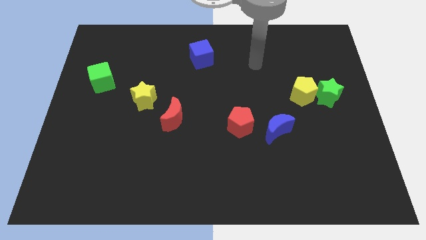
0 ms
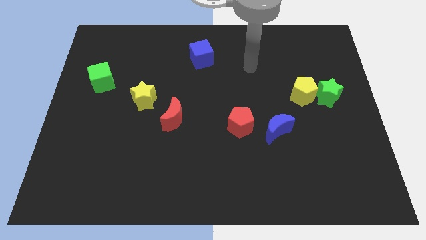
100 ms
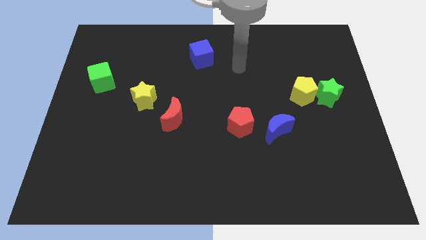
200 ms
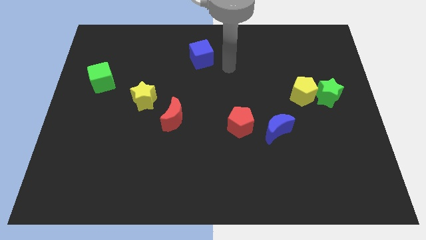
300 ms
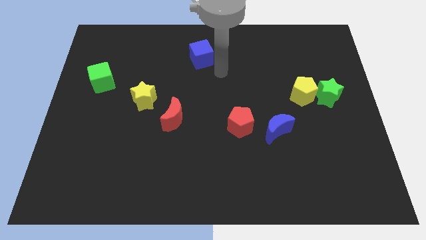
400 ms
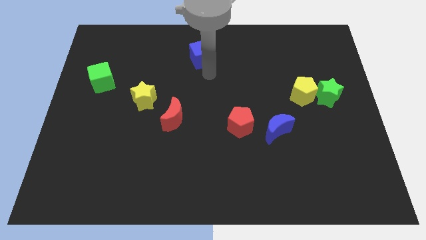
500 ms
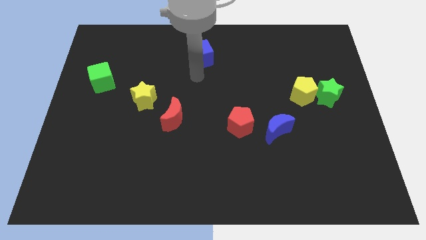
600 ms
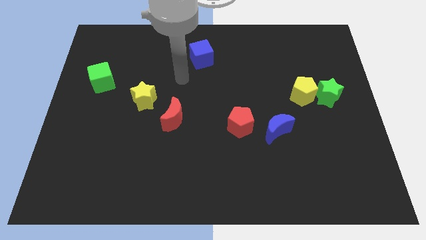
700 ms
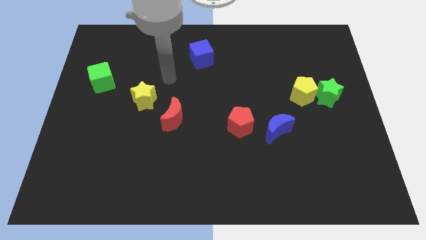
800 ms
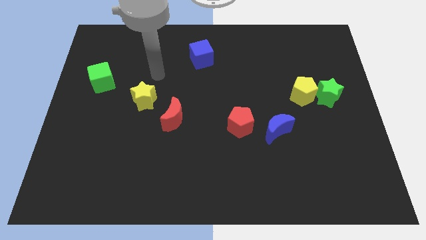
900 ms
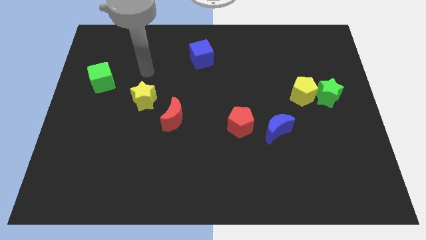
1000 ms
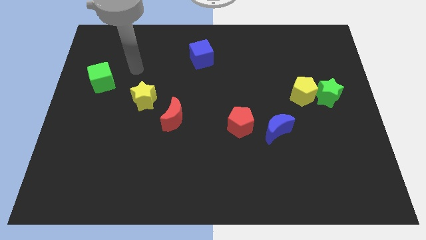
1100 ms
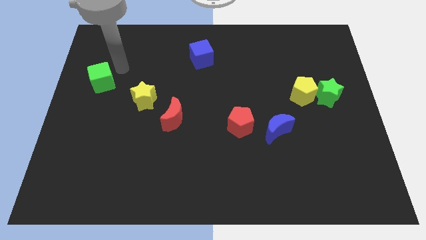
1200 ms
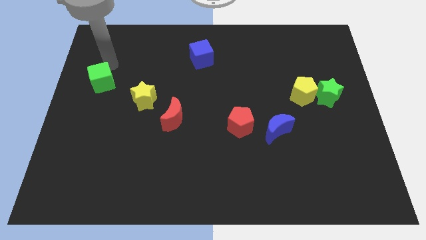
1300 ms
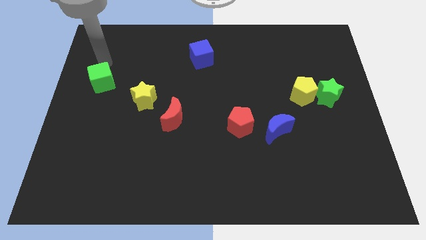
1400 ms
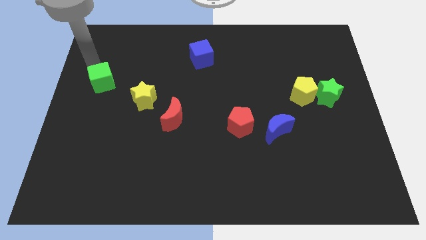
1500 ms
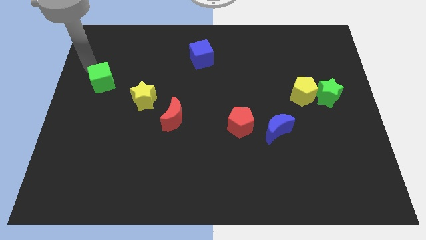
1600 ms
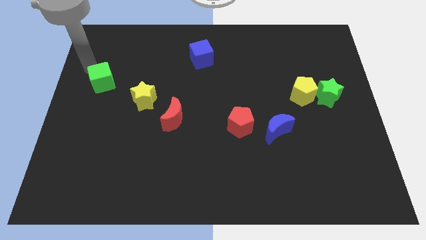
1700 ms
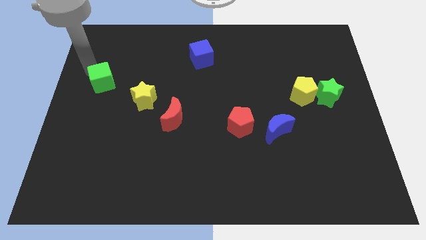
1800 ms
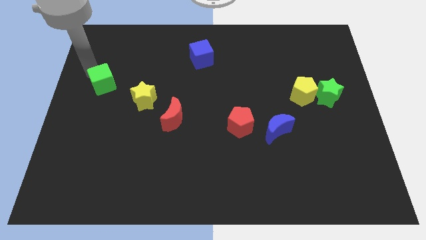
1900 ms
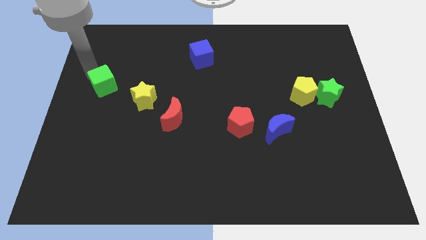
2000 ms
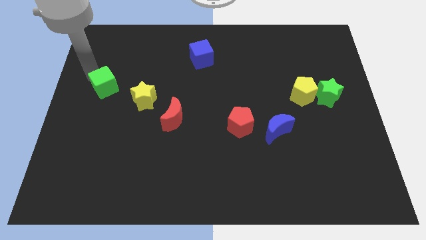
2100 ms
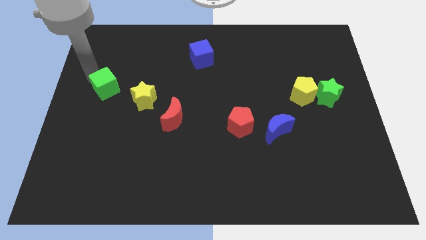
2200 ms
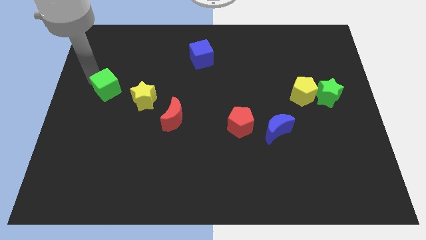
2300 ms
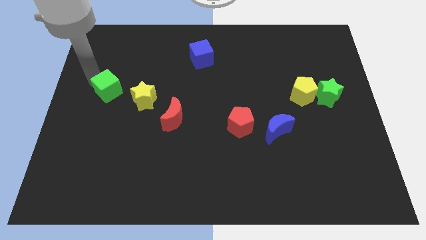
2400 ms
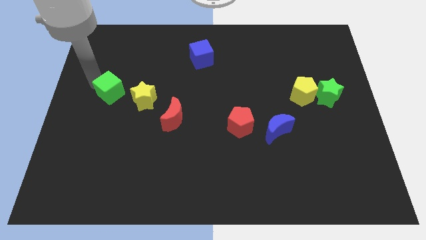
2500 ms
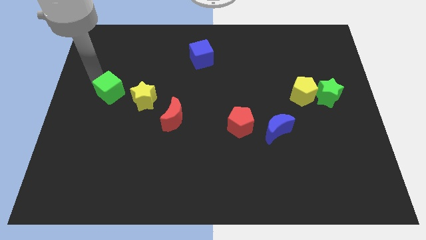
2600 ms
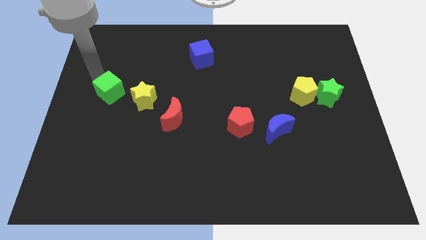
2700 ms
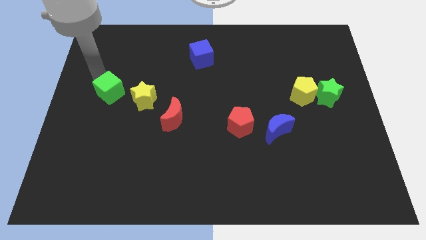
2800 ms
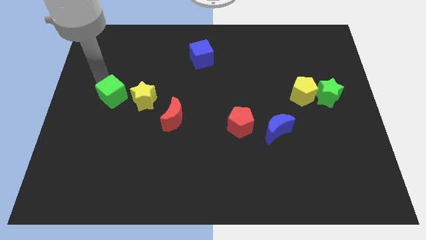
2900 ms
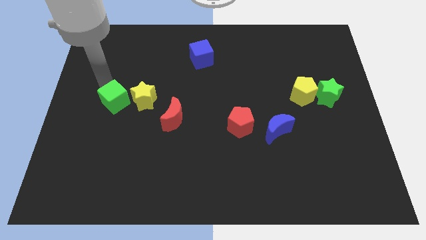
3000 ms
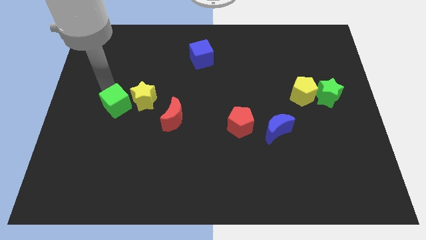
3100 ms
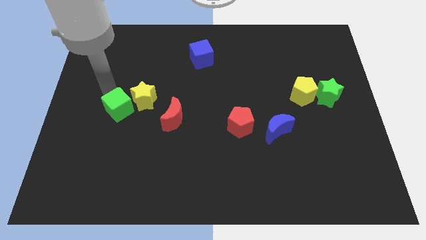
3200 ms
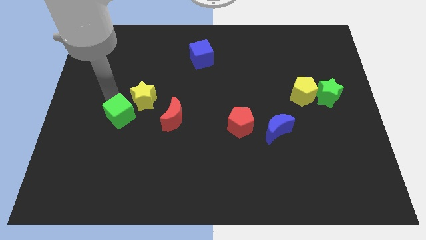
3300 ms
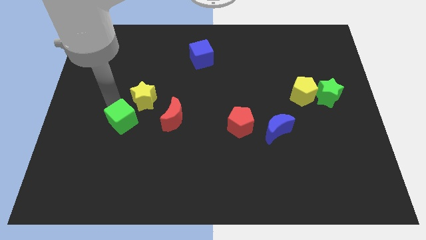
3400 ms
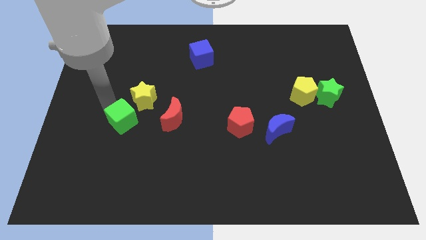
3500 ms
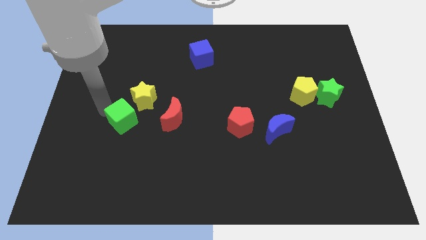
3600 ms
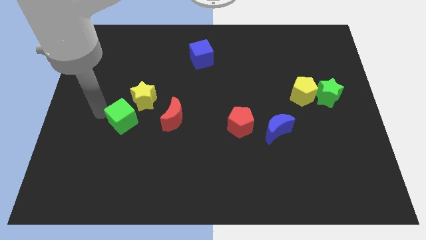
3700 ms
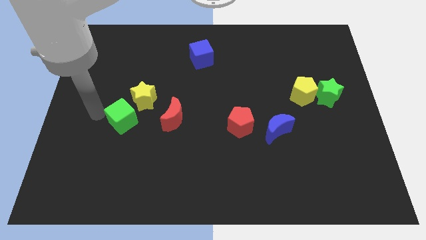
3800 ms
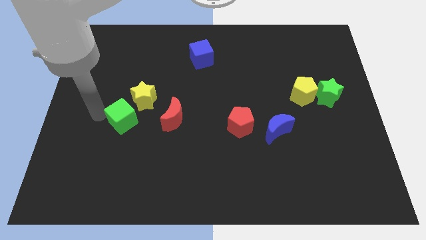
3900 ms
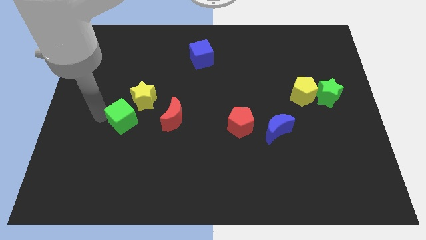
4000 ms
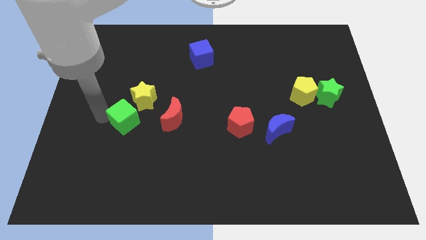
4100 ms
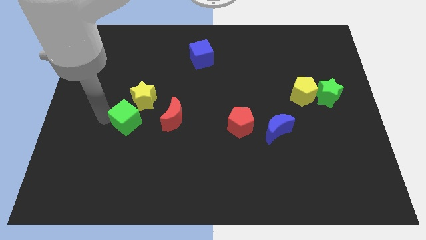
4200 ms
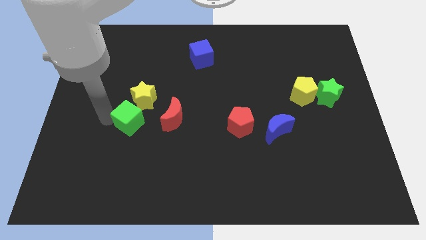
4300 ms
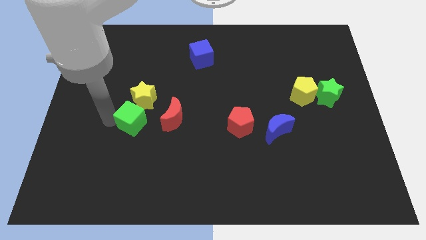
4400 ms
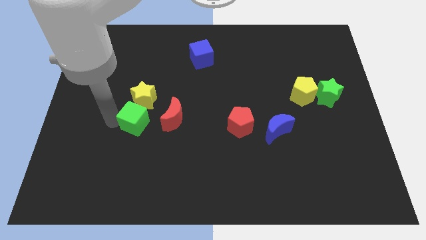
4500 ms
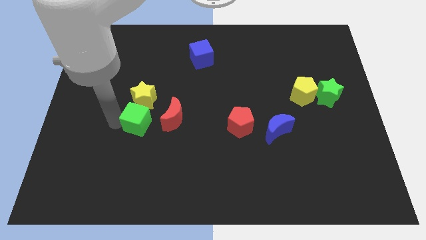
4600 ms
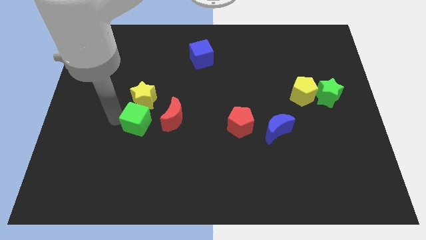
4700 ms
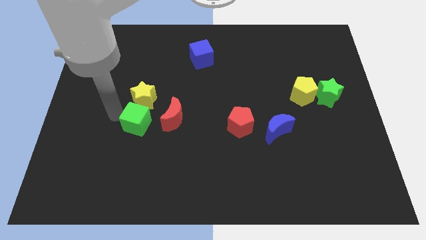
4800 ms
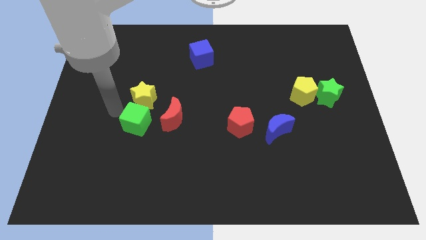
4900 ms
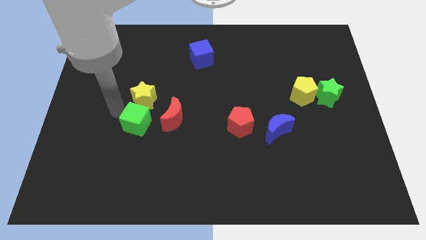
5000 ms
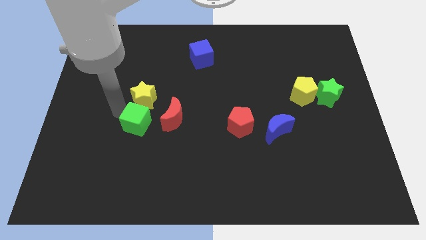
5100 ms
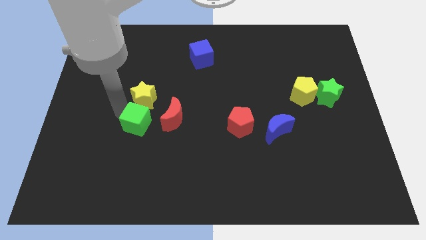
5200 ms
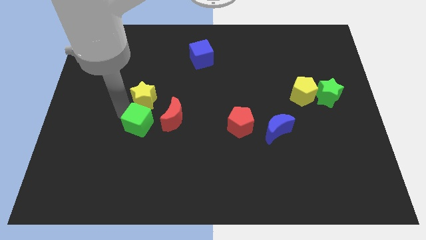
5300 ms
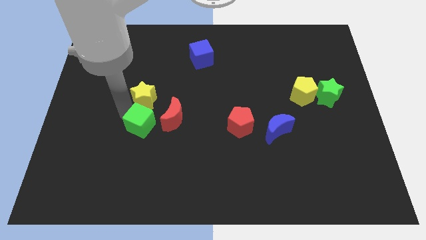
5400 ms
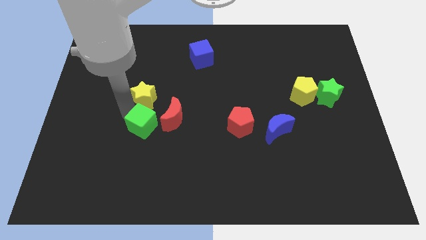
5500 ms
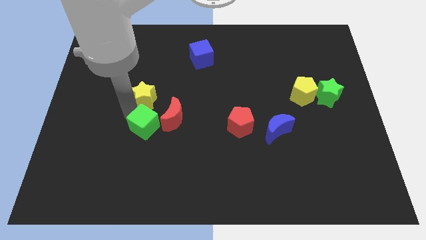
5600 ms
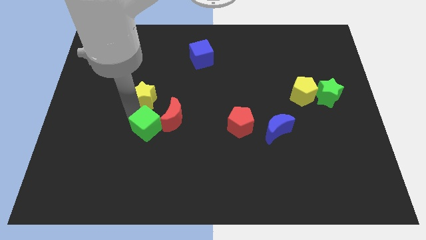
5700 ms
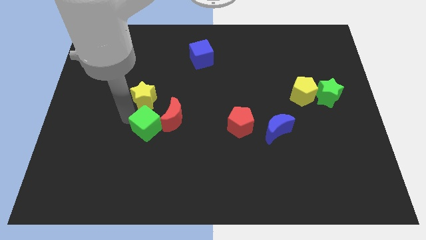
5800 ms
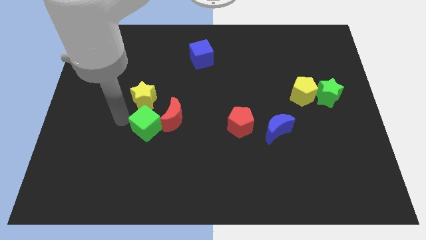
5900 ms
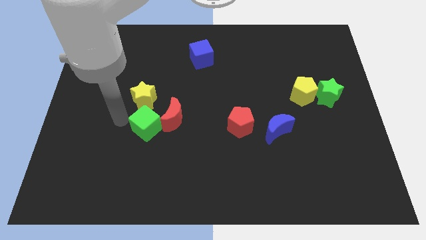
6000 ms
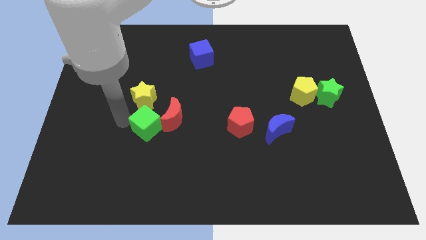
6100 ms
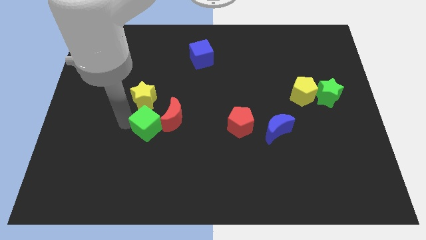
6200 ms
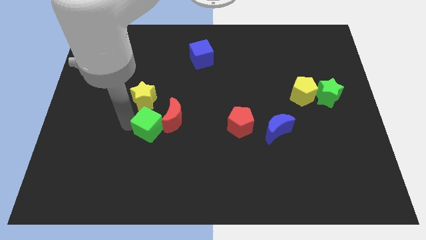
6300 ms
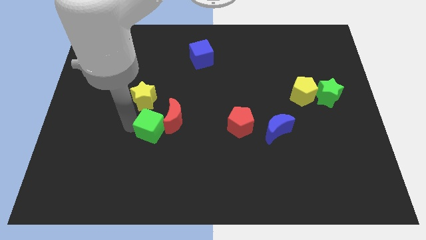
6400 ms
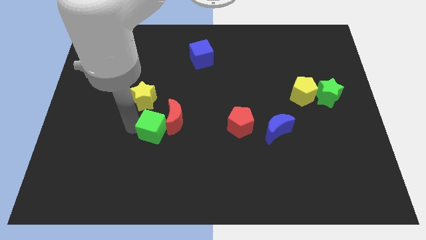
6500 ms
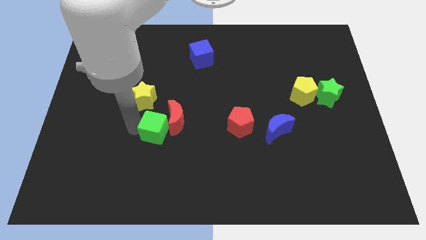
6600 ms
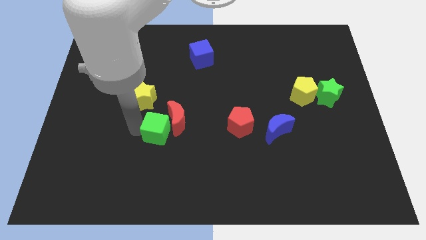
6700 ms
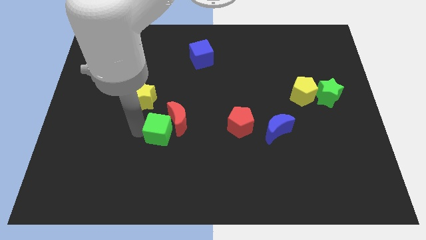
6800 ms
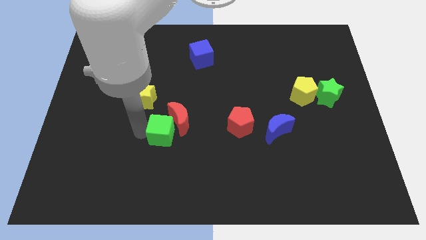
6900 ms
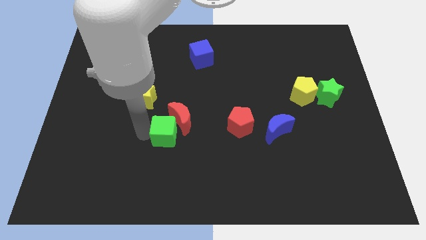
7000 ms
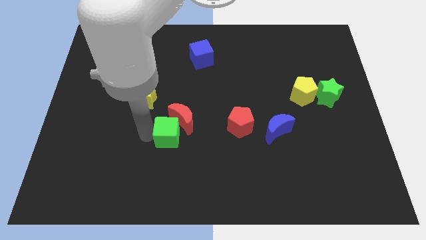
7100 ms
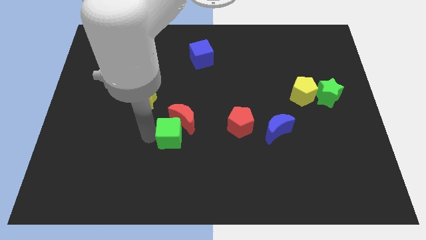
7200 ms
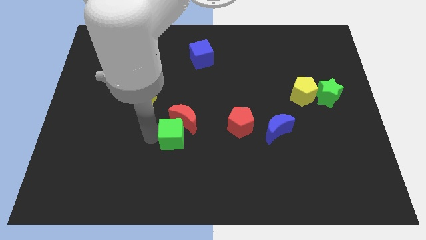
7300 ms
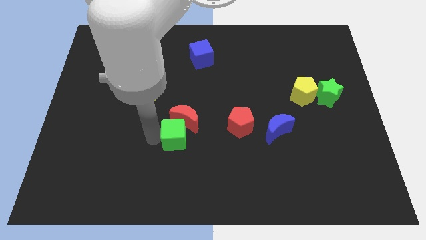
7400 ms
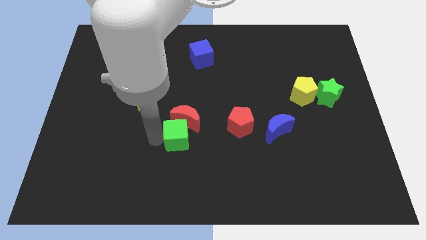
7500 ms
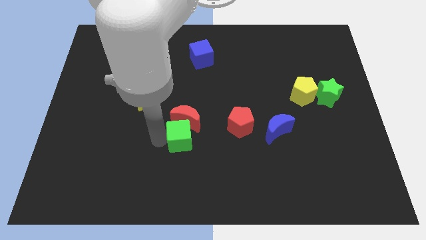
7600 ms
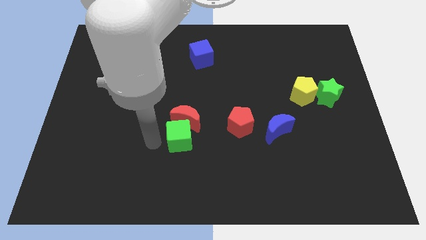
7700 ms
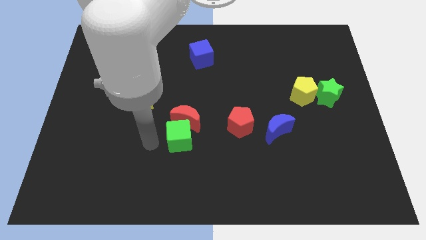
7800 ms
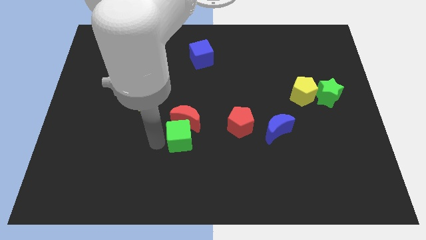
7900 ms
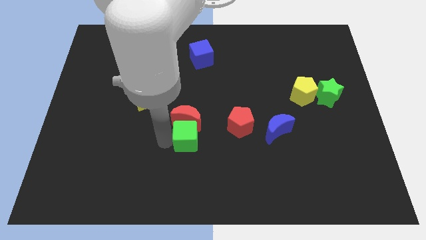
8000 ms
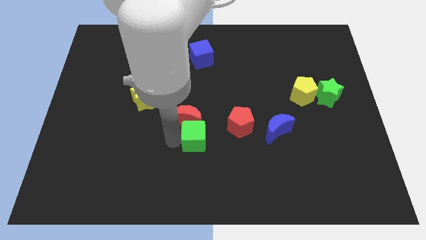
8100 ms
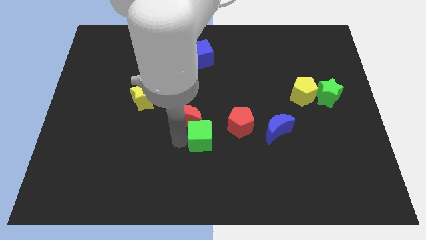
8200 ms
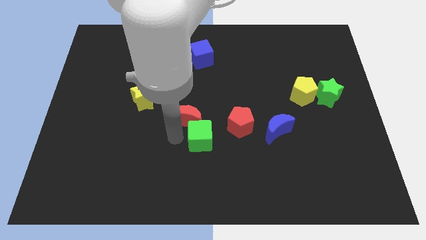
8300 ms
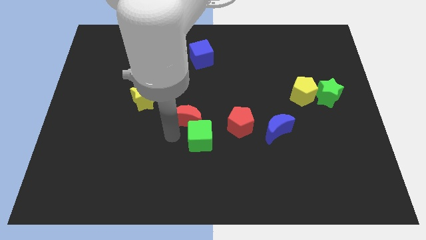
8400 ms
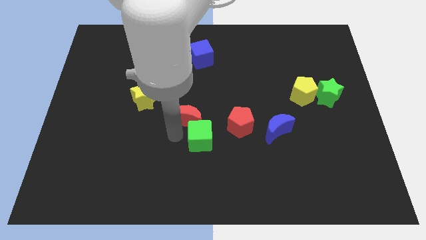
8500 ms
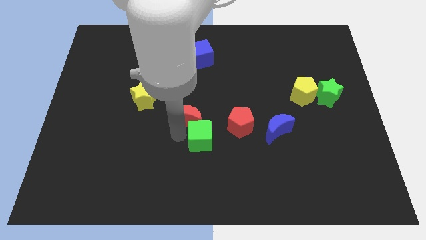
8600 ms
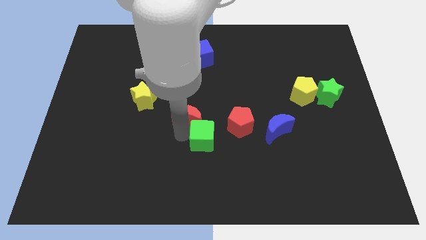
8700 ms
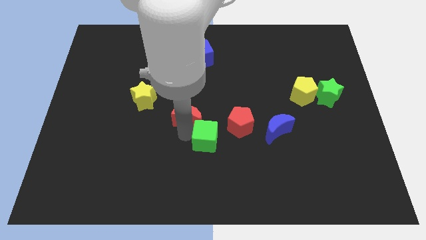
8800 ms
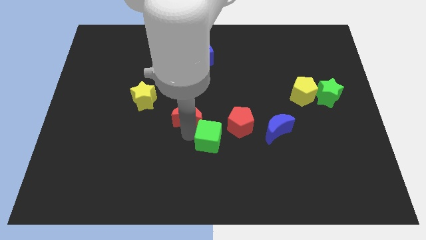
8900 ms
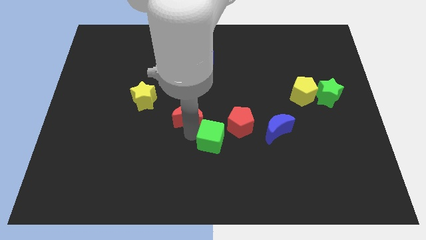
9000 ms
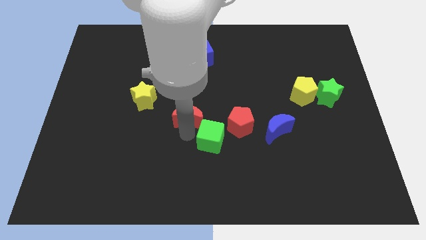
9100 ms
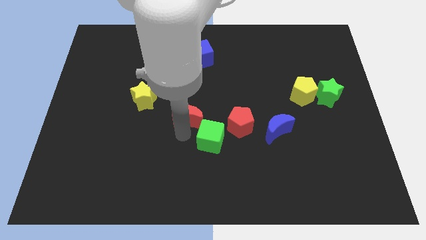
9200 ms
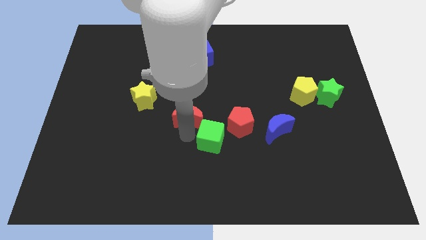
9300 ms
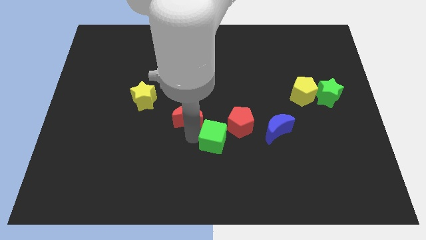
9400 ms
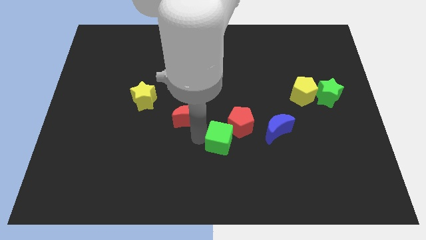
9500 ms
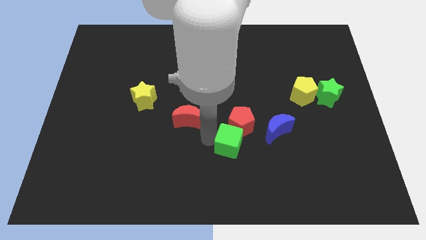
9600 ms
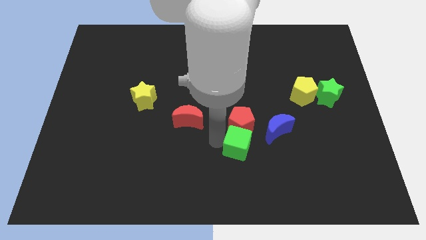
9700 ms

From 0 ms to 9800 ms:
move the green cube diagonally down and to the left of the blue moon
